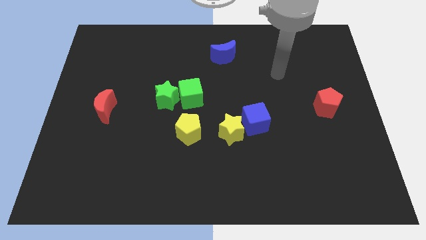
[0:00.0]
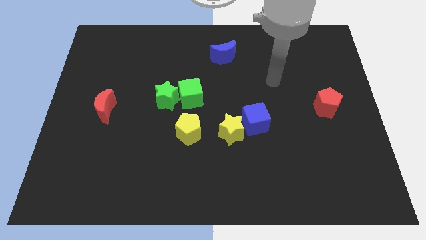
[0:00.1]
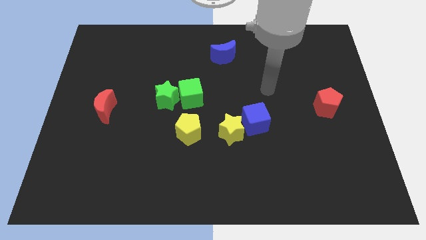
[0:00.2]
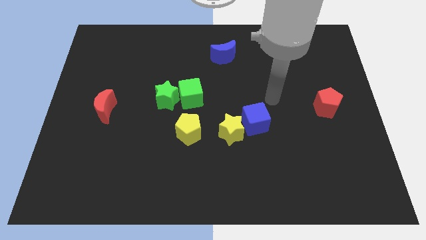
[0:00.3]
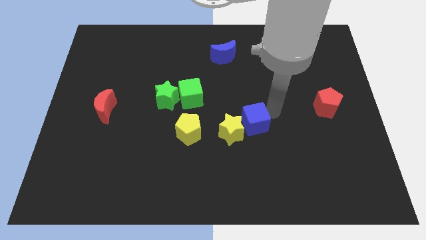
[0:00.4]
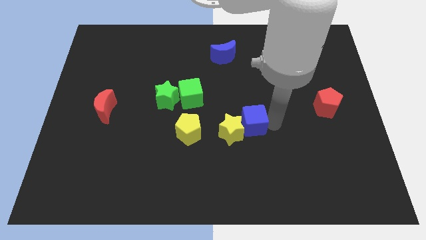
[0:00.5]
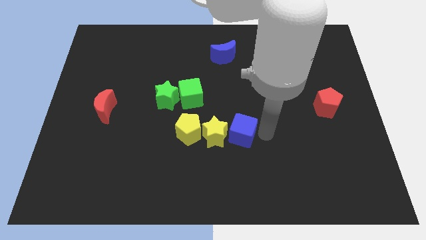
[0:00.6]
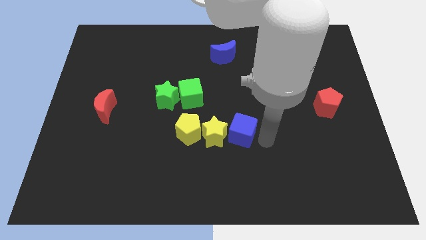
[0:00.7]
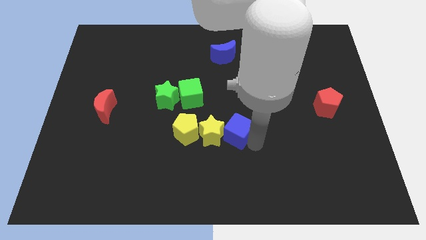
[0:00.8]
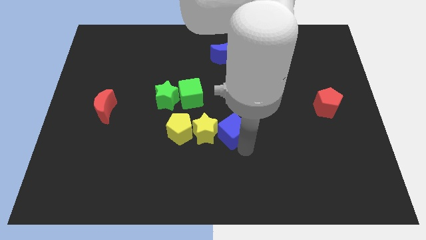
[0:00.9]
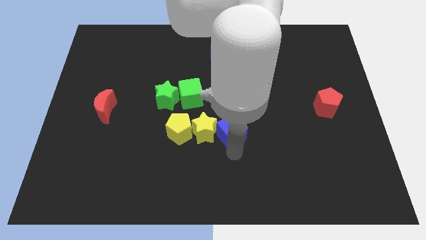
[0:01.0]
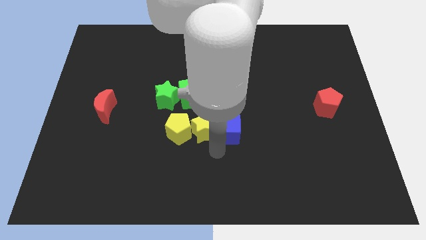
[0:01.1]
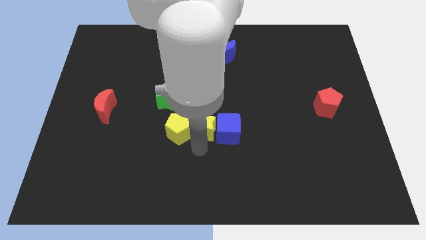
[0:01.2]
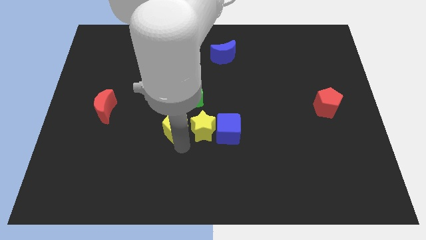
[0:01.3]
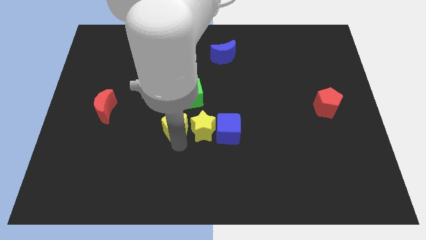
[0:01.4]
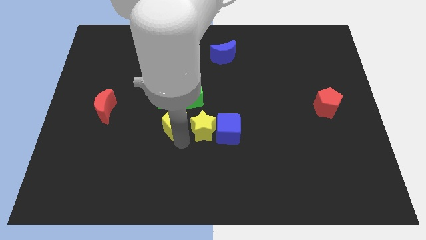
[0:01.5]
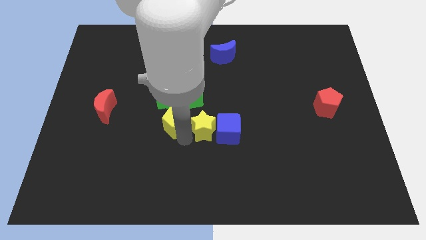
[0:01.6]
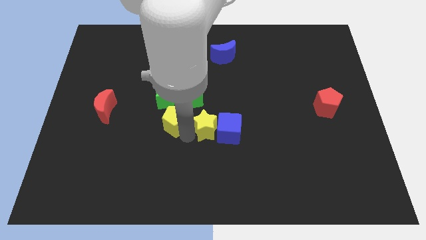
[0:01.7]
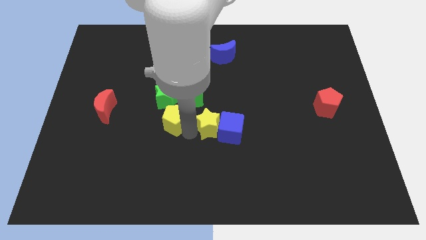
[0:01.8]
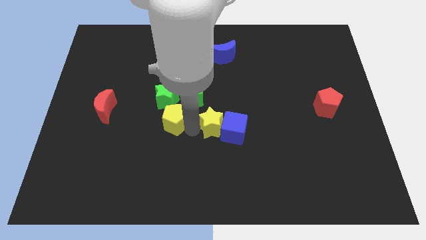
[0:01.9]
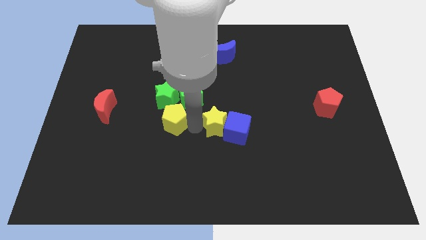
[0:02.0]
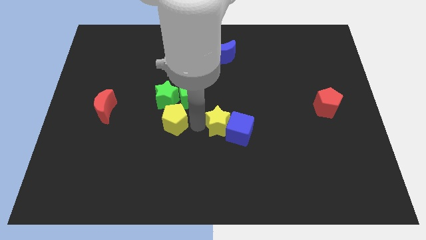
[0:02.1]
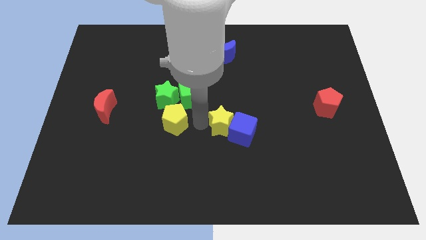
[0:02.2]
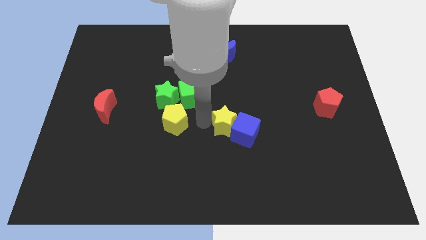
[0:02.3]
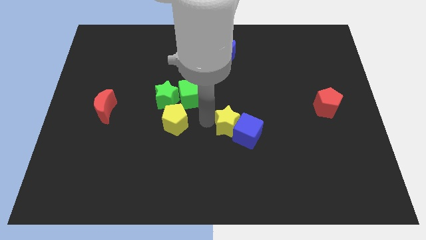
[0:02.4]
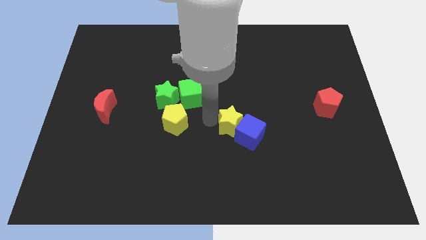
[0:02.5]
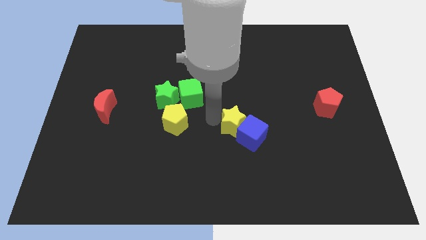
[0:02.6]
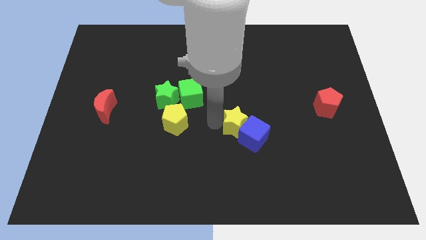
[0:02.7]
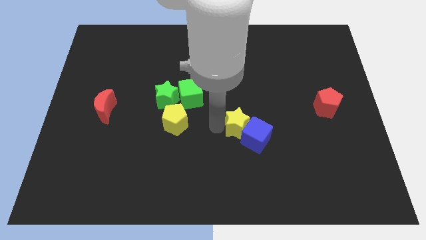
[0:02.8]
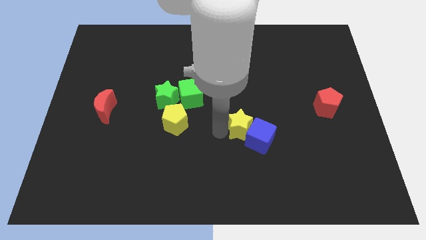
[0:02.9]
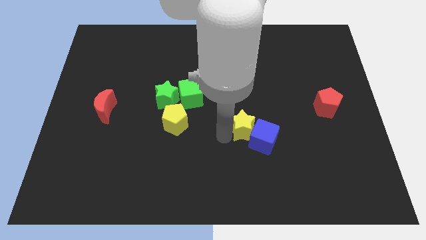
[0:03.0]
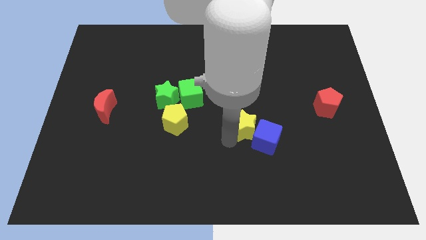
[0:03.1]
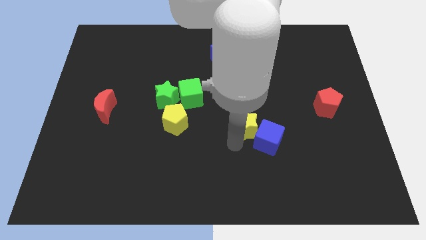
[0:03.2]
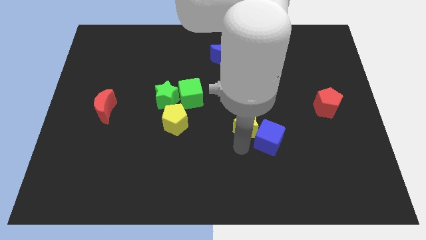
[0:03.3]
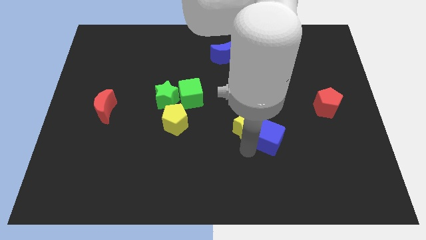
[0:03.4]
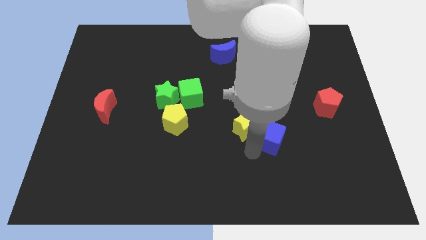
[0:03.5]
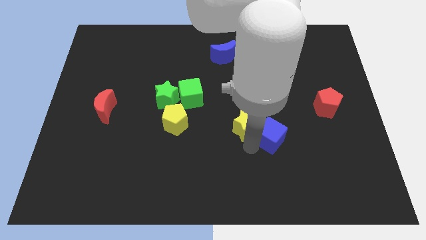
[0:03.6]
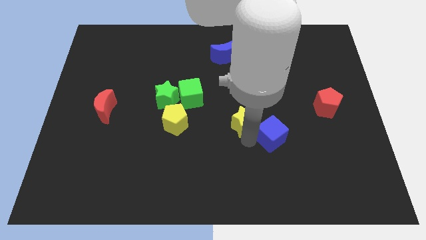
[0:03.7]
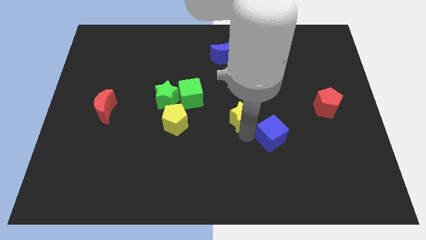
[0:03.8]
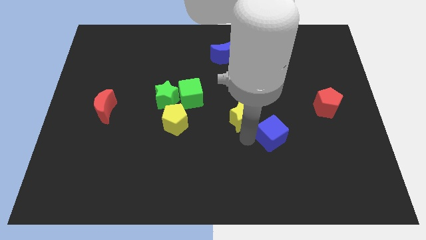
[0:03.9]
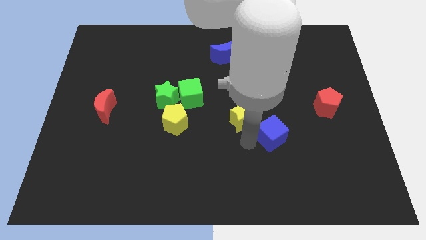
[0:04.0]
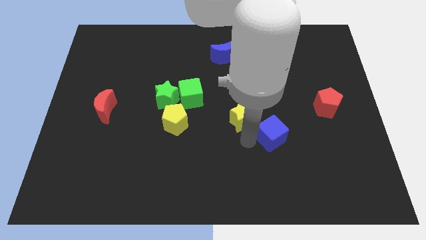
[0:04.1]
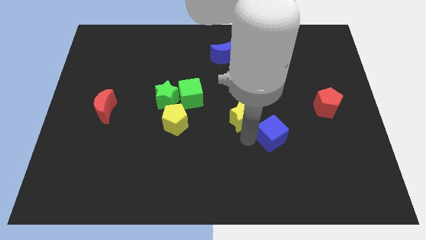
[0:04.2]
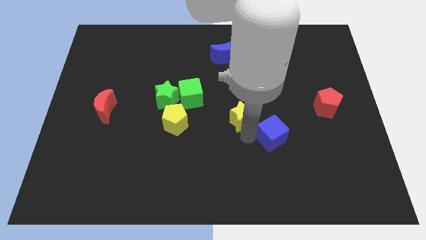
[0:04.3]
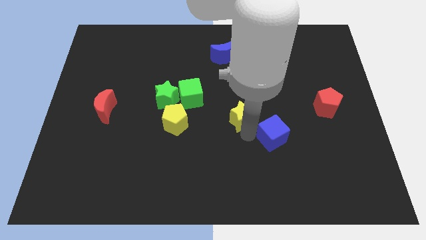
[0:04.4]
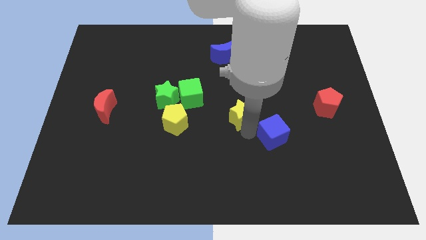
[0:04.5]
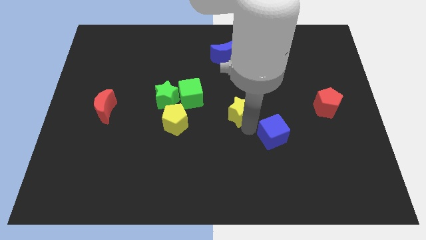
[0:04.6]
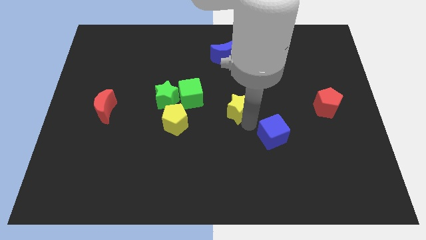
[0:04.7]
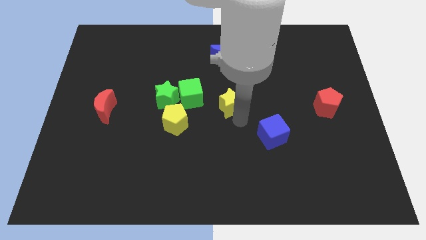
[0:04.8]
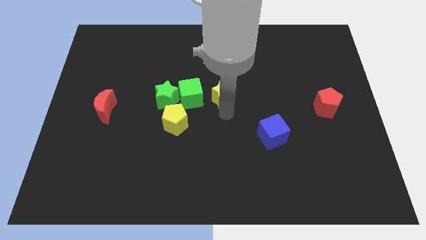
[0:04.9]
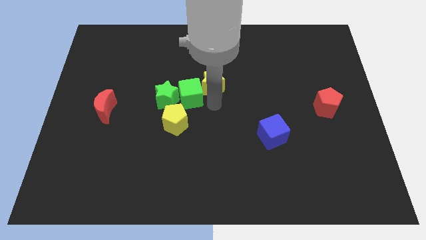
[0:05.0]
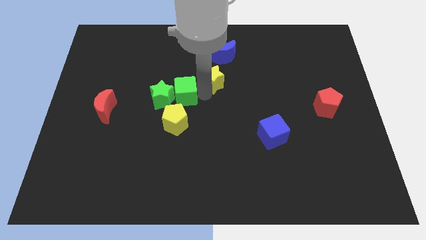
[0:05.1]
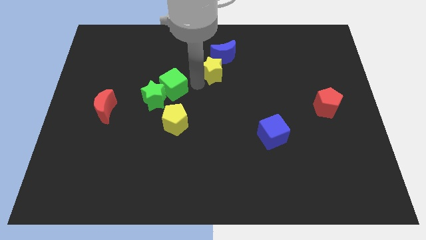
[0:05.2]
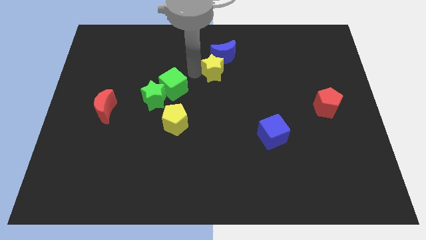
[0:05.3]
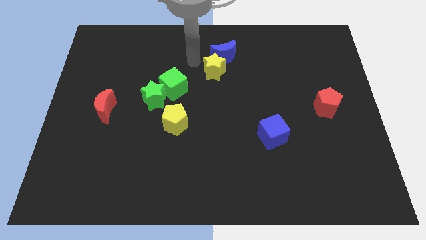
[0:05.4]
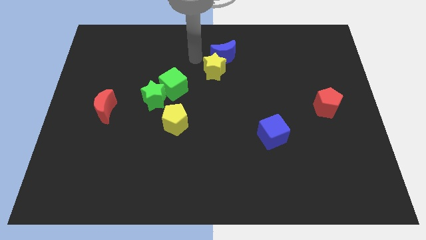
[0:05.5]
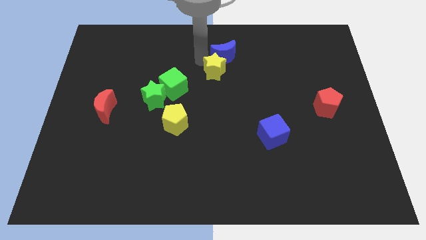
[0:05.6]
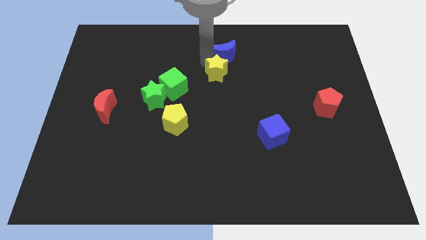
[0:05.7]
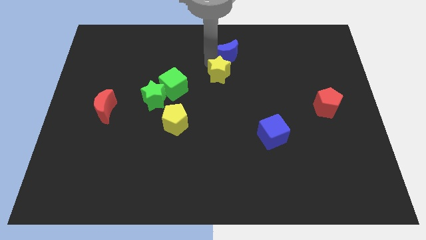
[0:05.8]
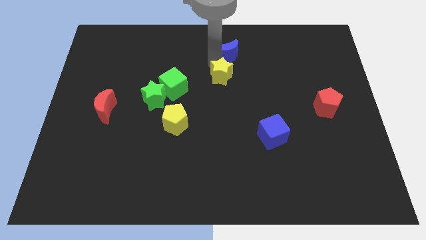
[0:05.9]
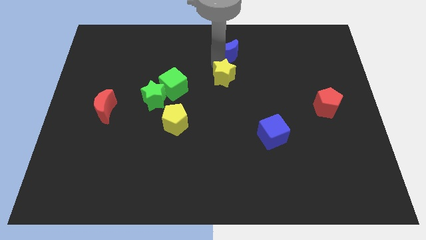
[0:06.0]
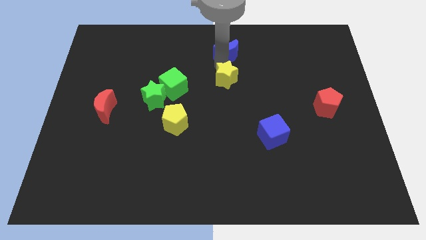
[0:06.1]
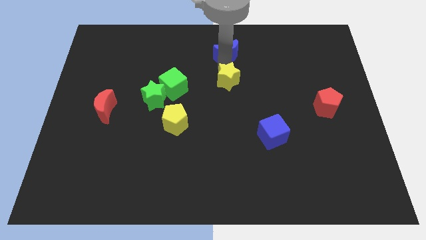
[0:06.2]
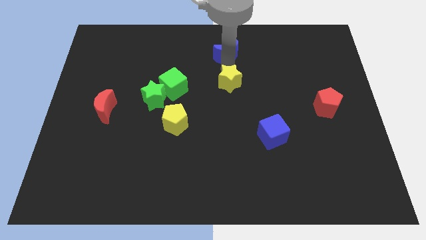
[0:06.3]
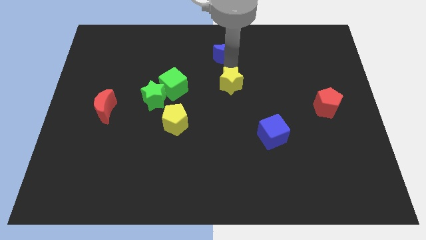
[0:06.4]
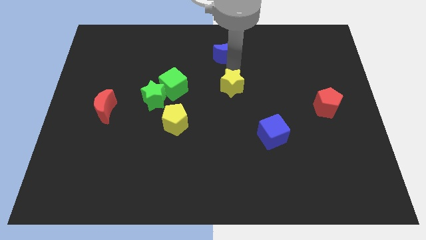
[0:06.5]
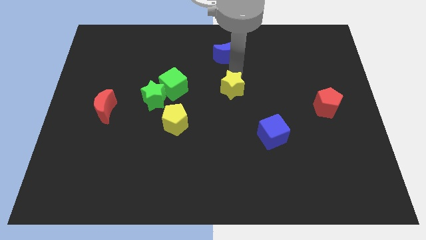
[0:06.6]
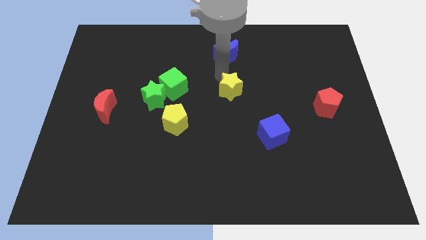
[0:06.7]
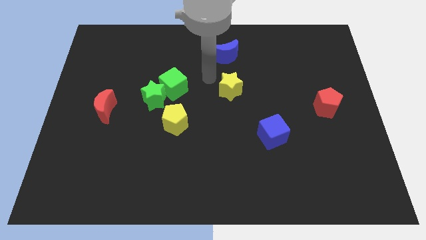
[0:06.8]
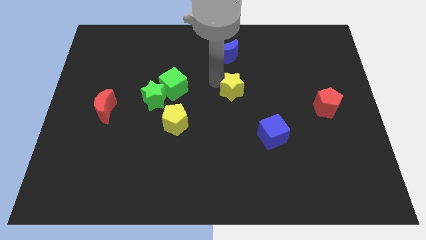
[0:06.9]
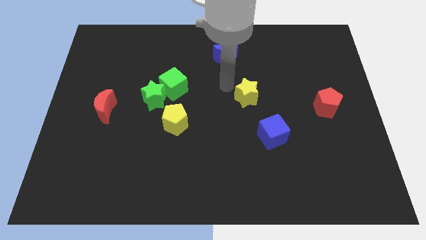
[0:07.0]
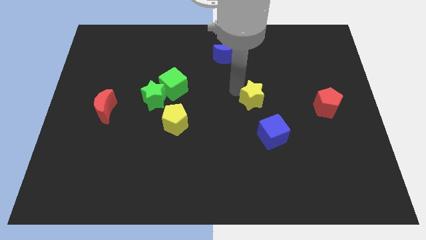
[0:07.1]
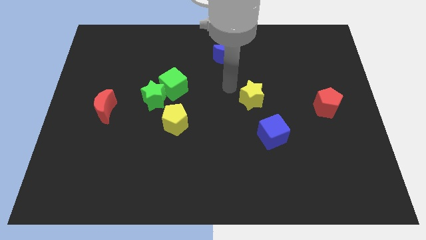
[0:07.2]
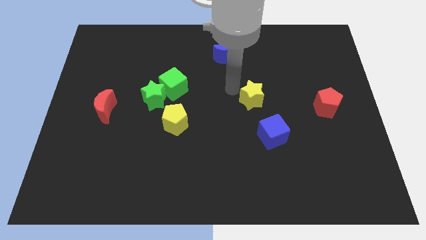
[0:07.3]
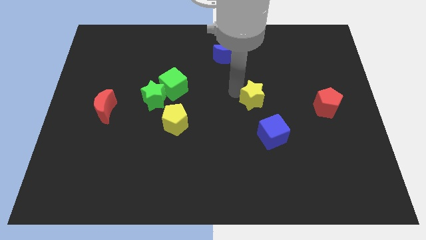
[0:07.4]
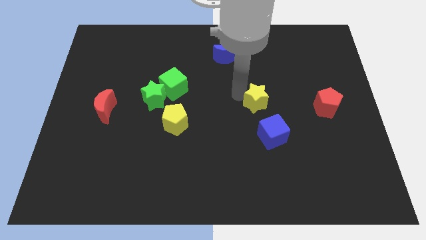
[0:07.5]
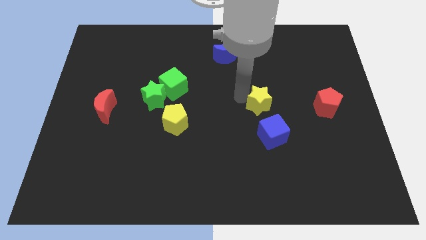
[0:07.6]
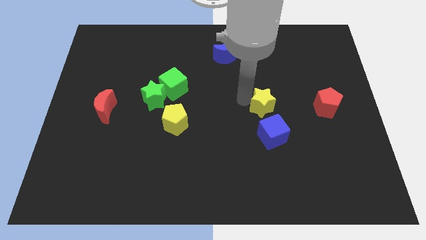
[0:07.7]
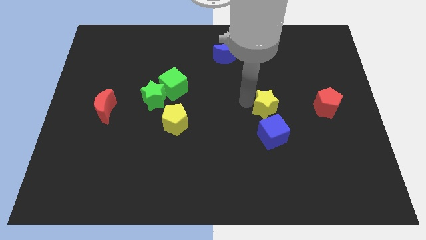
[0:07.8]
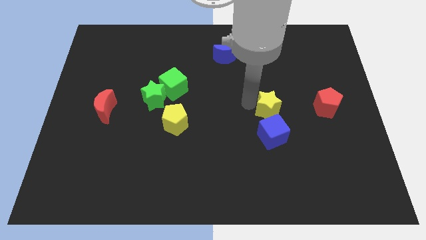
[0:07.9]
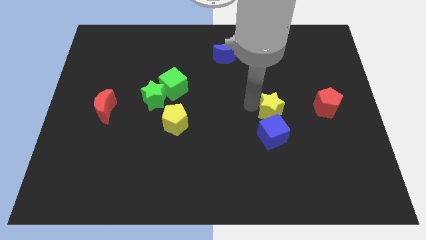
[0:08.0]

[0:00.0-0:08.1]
slide the yellow star diagonally up and to the right of the blue cube
